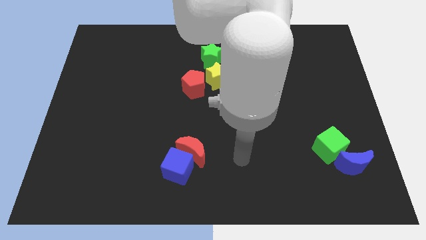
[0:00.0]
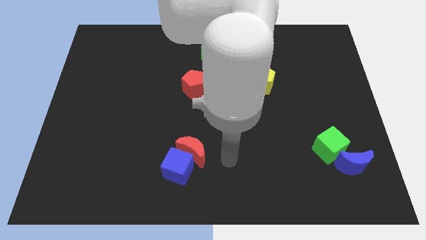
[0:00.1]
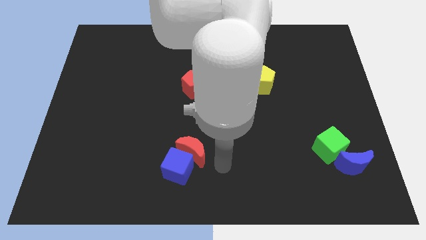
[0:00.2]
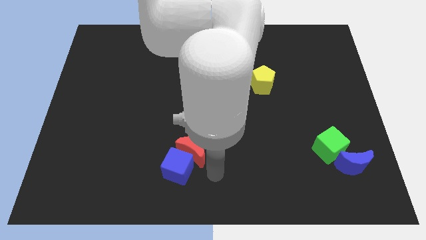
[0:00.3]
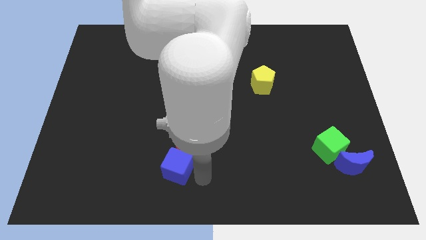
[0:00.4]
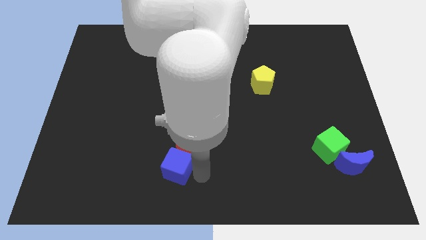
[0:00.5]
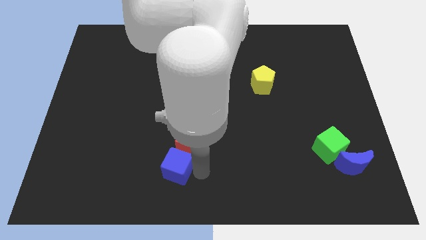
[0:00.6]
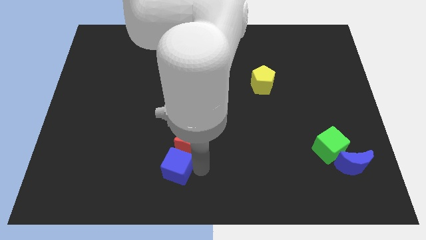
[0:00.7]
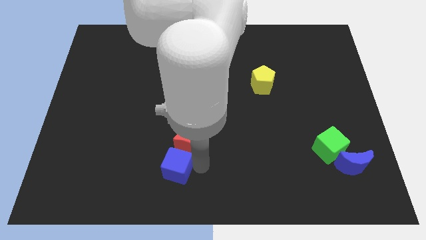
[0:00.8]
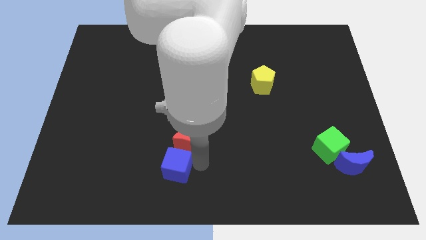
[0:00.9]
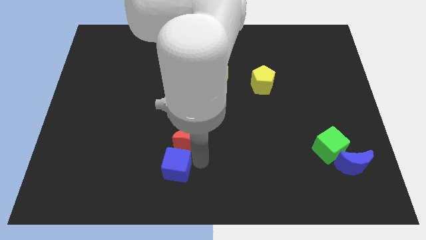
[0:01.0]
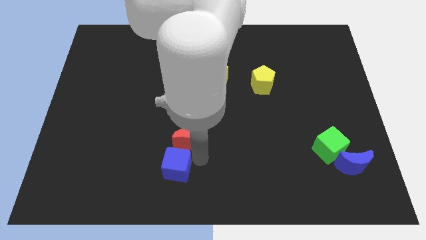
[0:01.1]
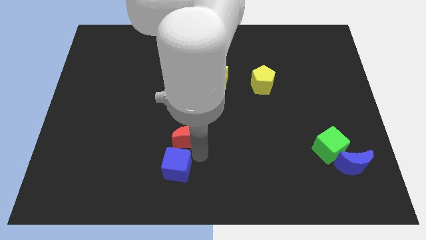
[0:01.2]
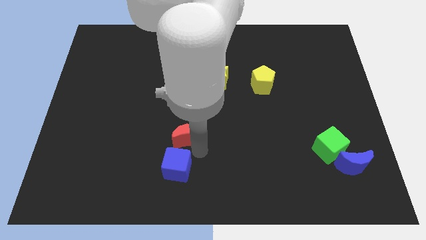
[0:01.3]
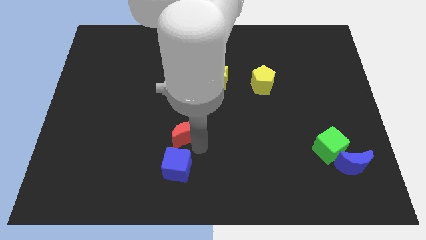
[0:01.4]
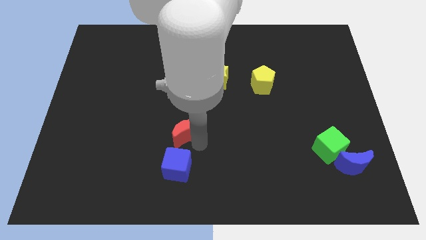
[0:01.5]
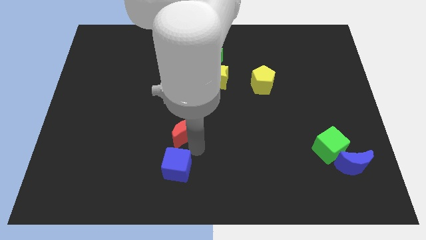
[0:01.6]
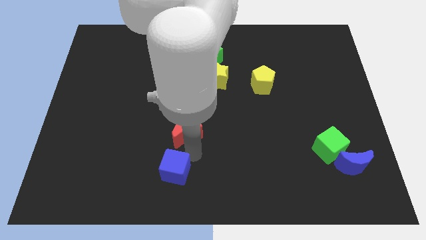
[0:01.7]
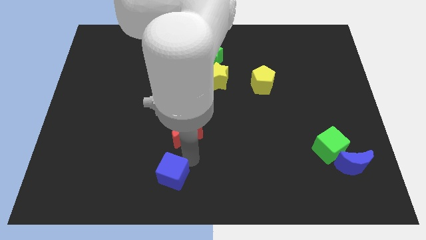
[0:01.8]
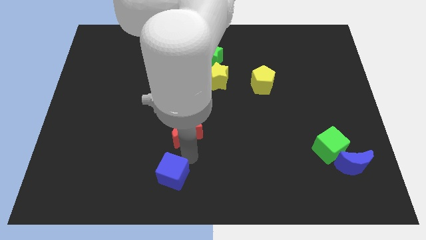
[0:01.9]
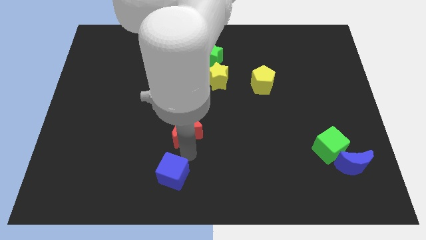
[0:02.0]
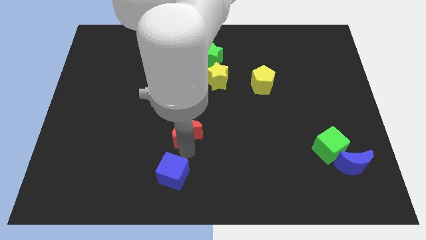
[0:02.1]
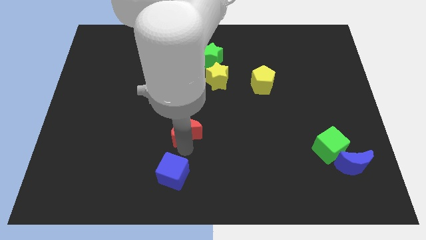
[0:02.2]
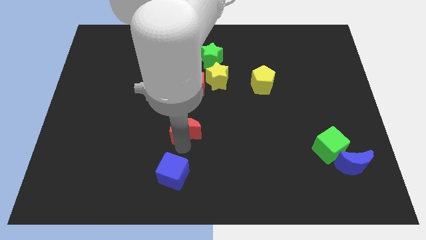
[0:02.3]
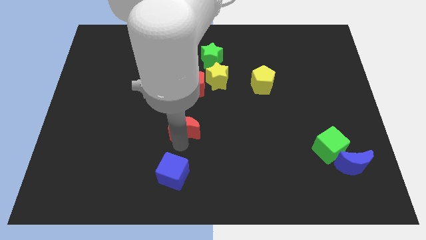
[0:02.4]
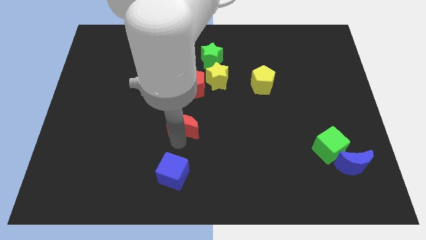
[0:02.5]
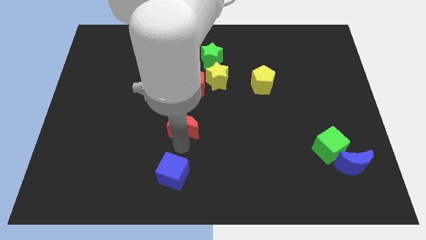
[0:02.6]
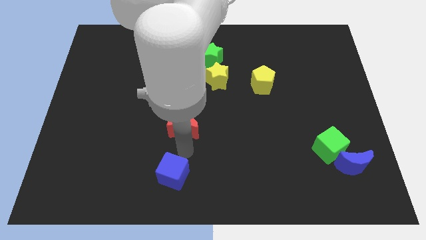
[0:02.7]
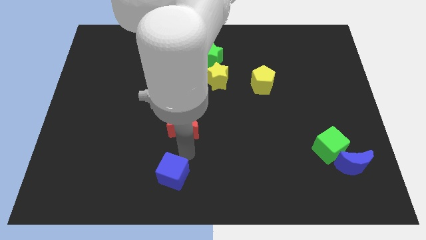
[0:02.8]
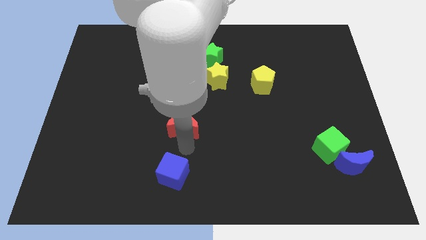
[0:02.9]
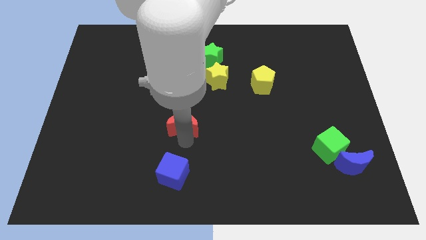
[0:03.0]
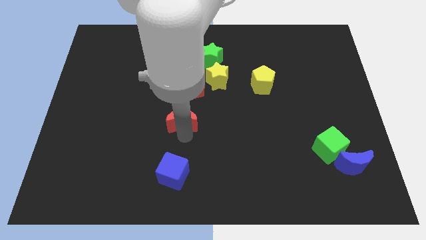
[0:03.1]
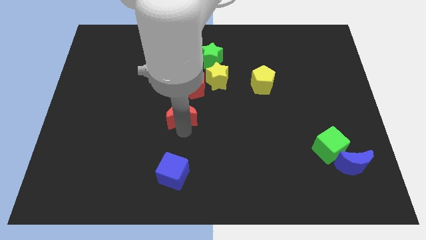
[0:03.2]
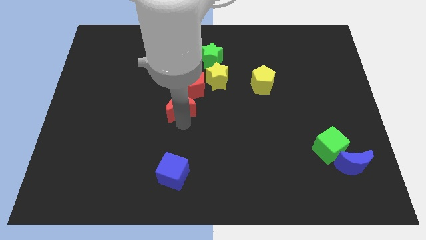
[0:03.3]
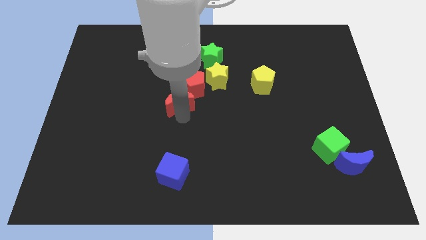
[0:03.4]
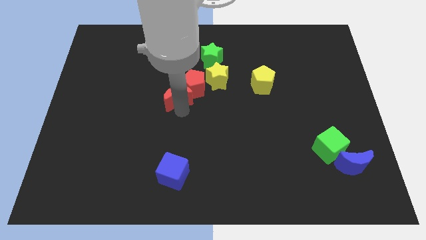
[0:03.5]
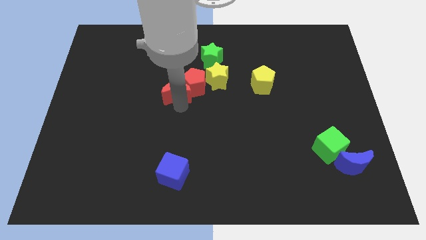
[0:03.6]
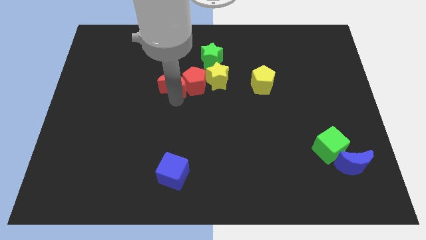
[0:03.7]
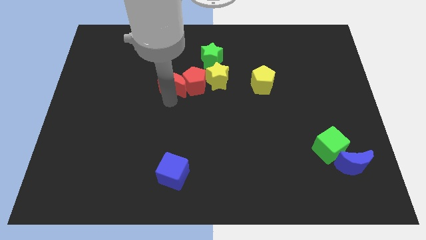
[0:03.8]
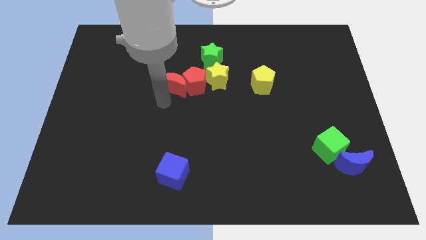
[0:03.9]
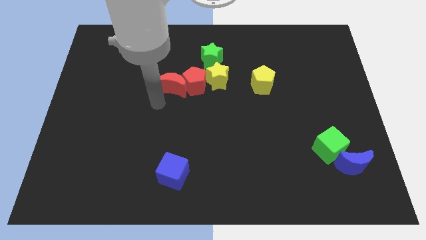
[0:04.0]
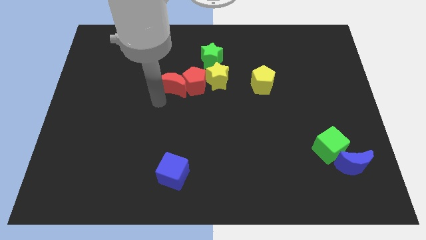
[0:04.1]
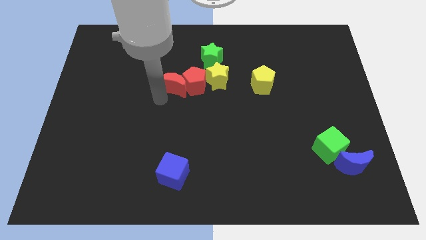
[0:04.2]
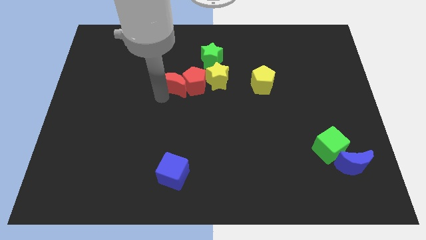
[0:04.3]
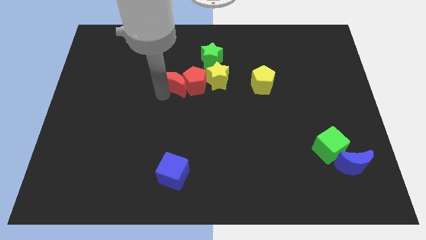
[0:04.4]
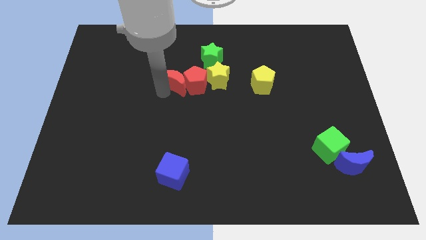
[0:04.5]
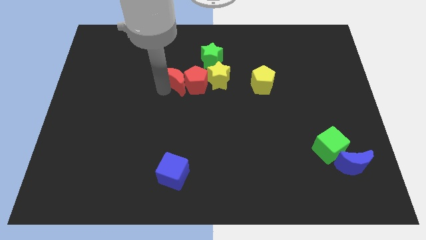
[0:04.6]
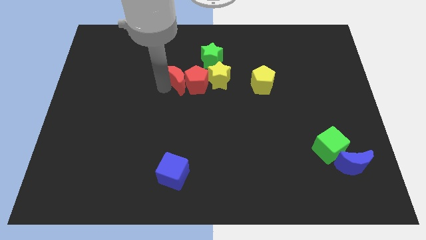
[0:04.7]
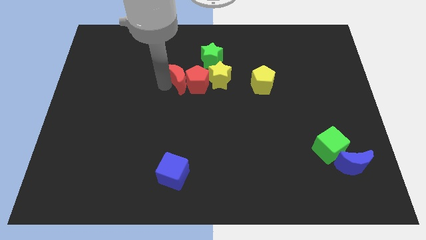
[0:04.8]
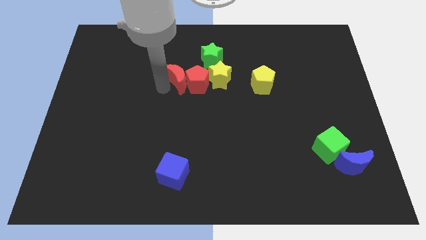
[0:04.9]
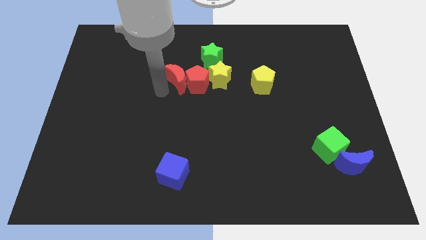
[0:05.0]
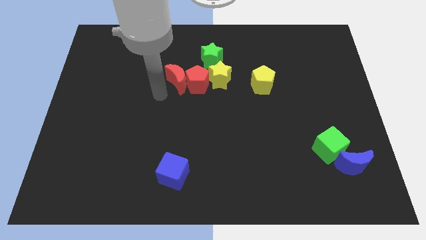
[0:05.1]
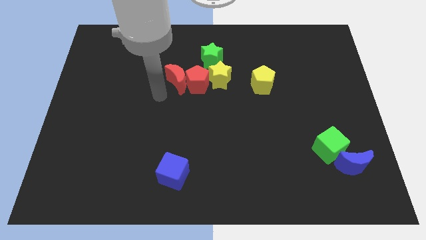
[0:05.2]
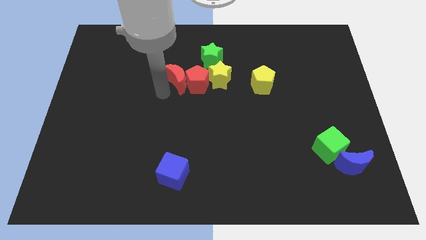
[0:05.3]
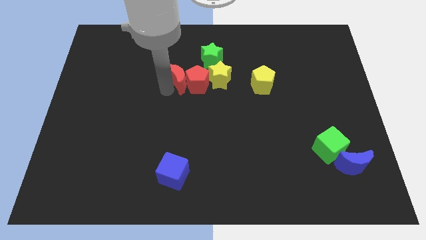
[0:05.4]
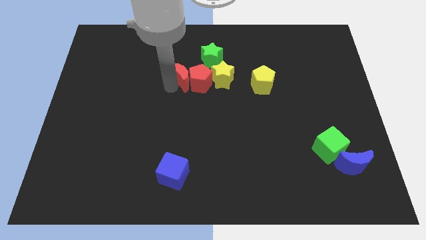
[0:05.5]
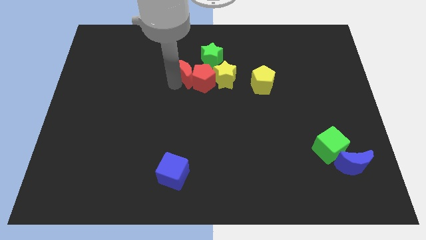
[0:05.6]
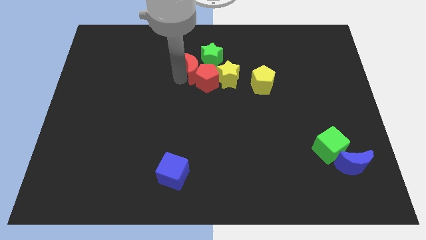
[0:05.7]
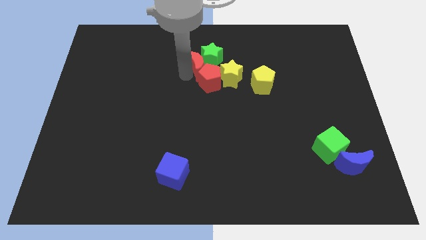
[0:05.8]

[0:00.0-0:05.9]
move the red moon close to the green star

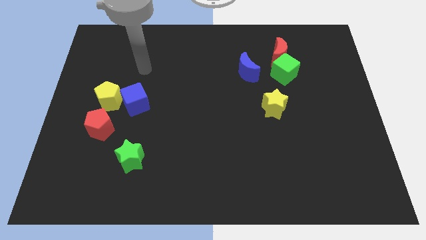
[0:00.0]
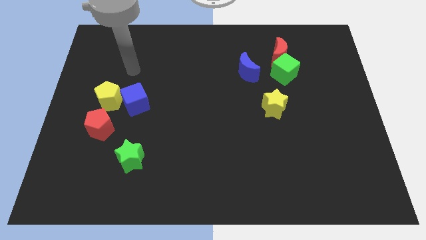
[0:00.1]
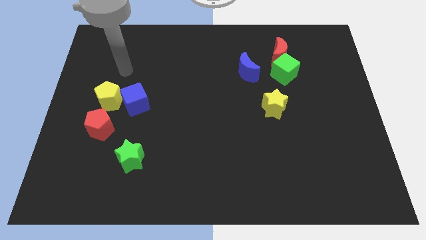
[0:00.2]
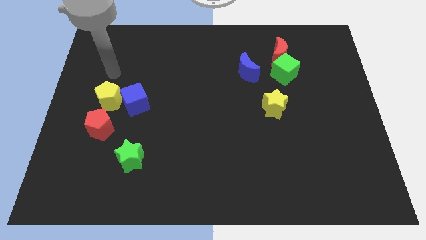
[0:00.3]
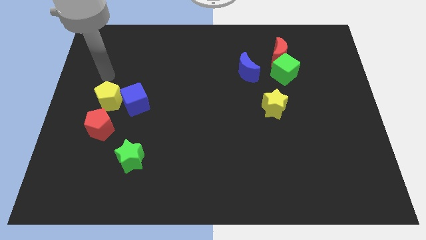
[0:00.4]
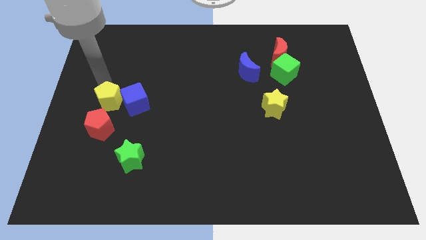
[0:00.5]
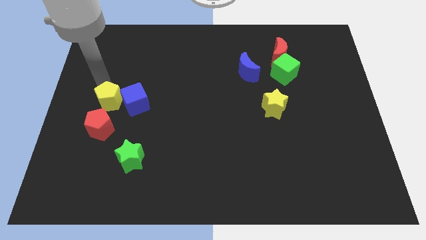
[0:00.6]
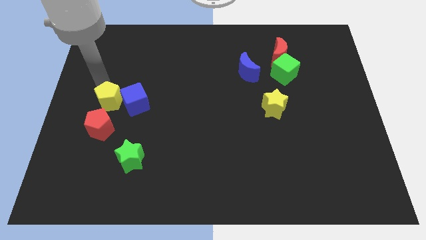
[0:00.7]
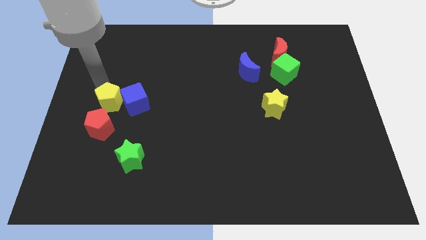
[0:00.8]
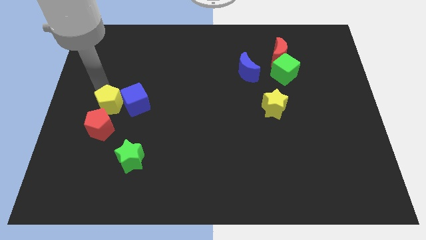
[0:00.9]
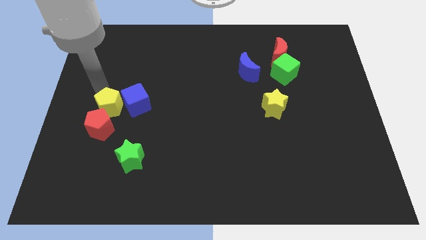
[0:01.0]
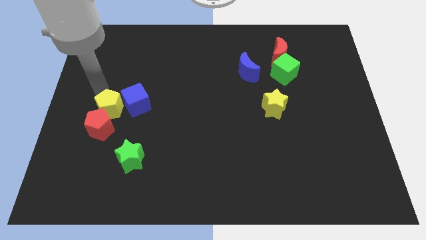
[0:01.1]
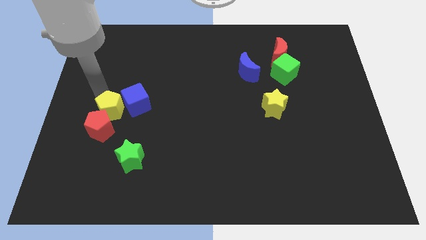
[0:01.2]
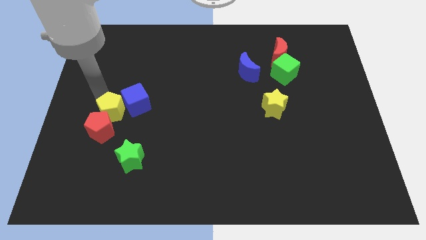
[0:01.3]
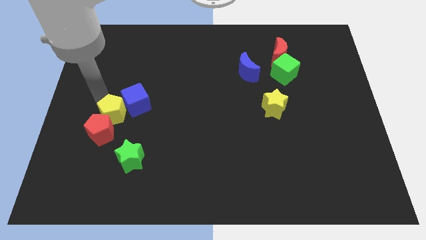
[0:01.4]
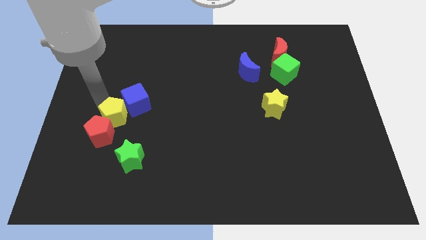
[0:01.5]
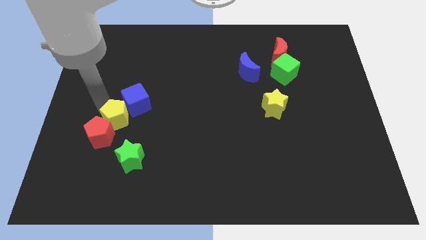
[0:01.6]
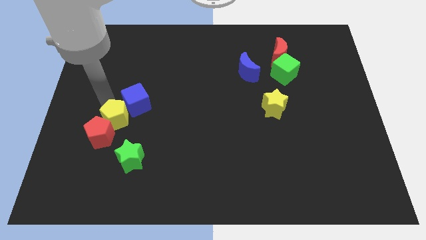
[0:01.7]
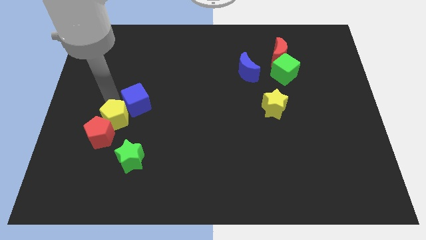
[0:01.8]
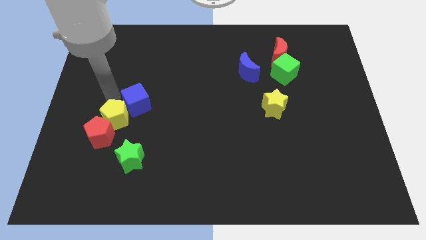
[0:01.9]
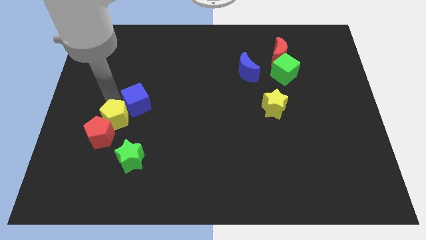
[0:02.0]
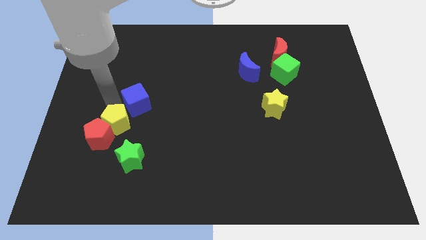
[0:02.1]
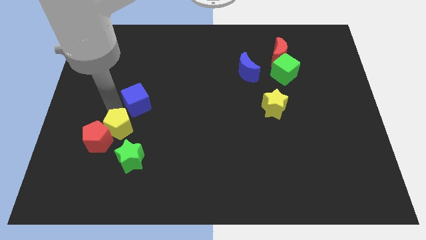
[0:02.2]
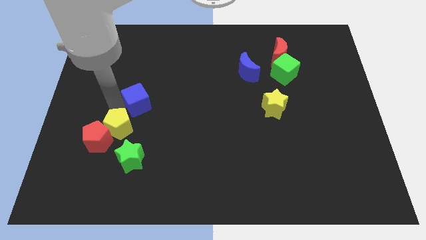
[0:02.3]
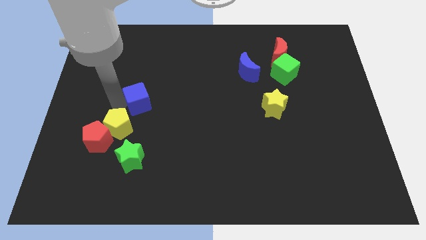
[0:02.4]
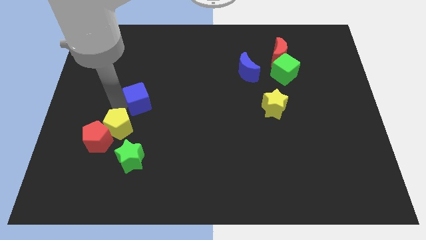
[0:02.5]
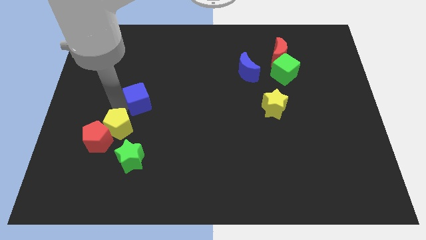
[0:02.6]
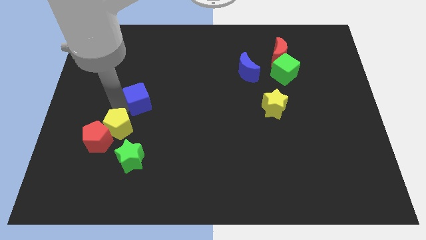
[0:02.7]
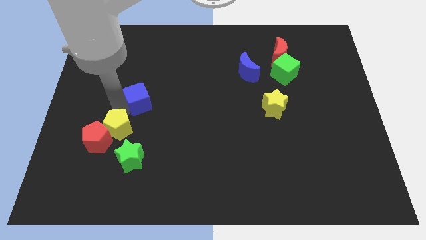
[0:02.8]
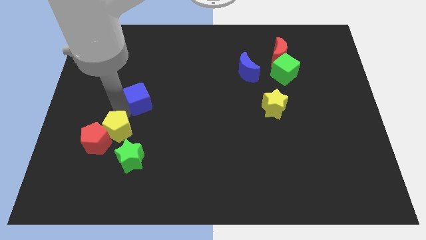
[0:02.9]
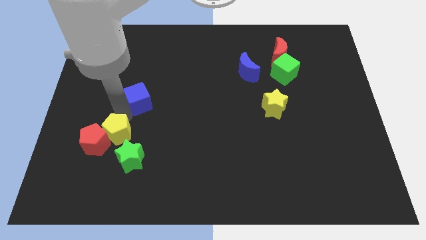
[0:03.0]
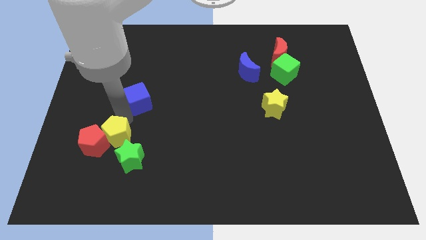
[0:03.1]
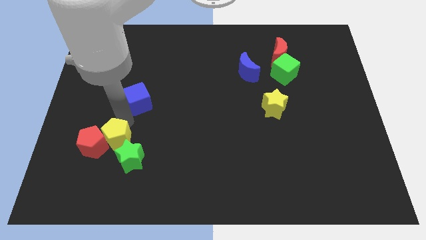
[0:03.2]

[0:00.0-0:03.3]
put the yellow pentagon next to the green star
